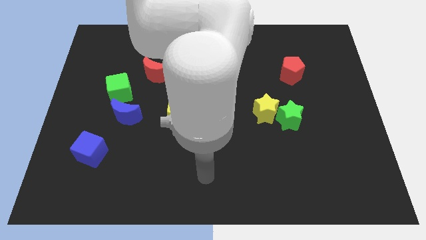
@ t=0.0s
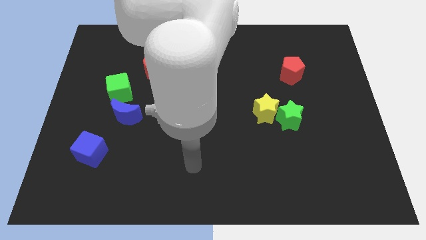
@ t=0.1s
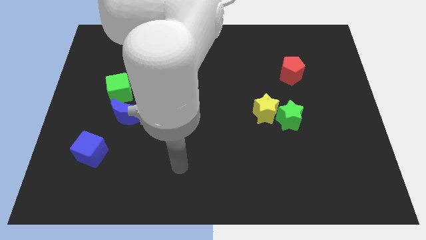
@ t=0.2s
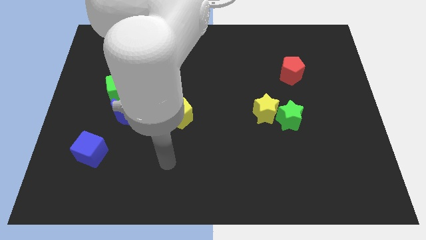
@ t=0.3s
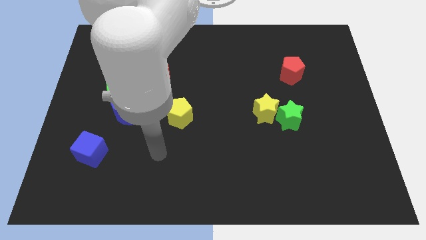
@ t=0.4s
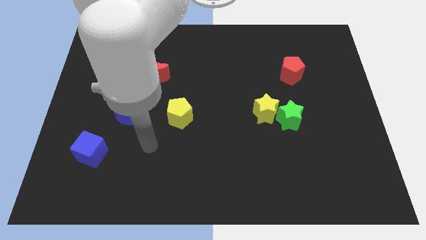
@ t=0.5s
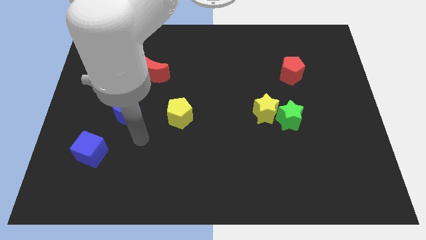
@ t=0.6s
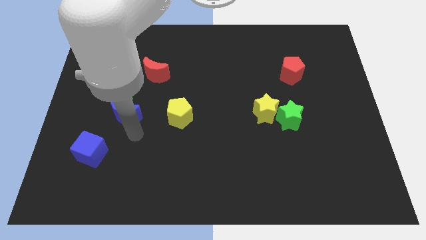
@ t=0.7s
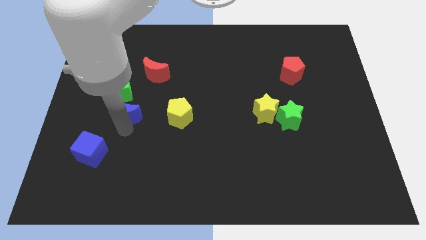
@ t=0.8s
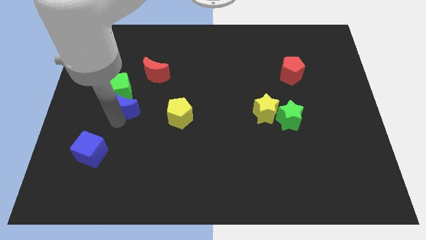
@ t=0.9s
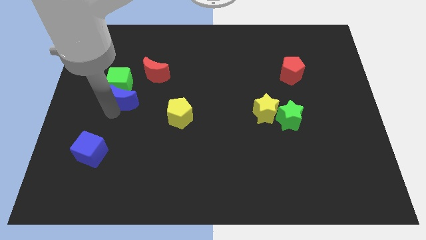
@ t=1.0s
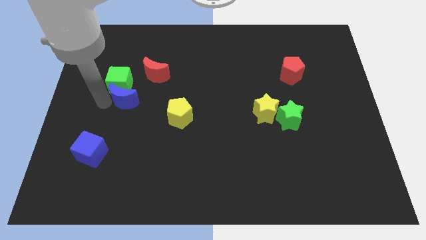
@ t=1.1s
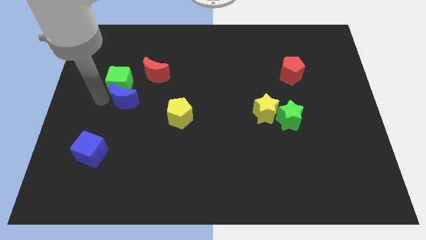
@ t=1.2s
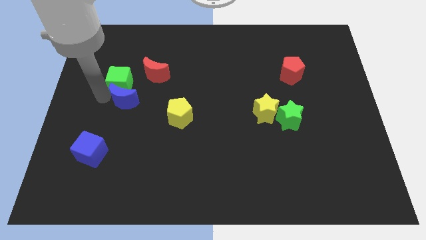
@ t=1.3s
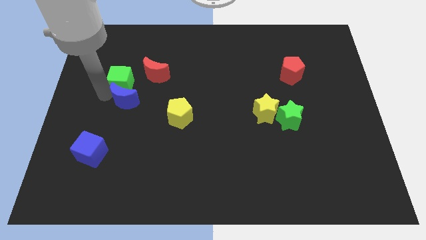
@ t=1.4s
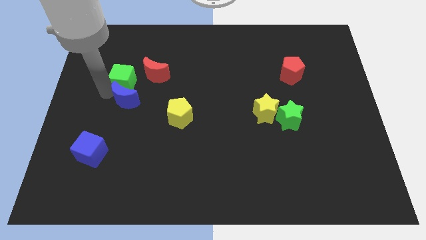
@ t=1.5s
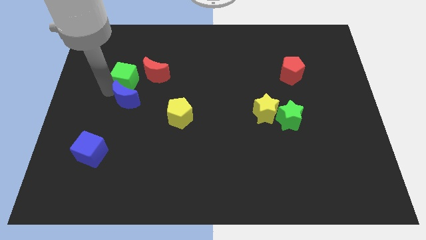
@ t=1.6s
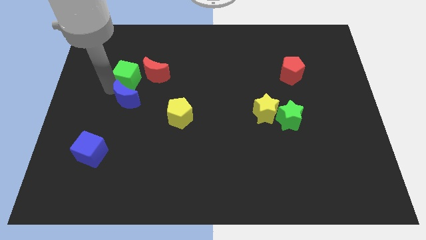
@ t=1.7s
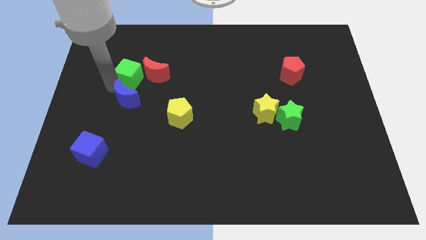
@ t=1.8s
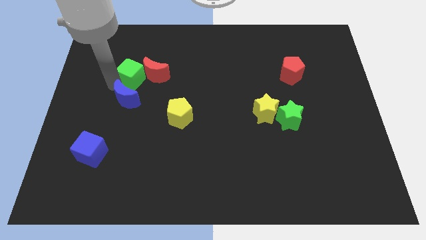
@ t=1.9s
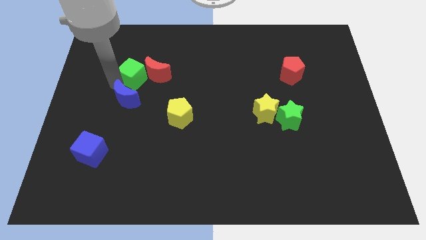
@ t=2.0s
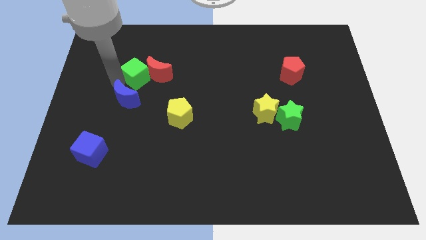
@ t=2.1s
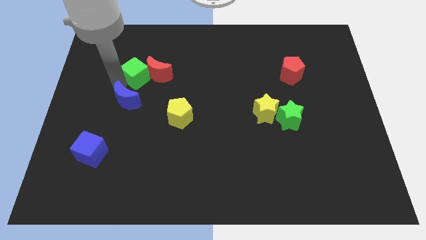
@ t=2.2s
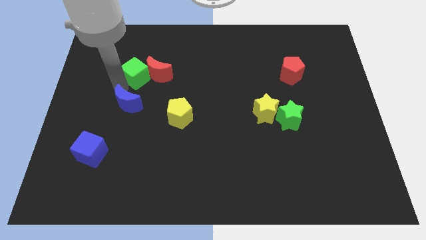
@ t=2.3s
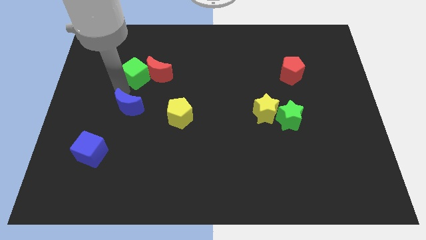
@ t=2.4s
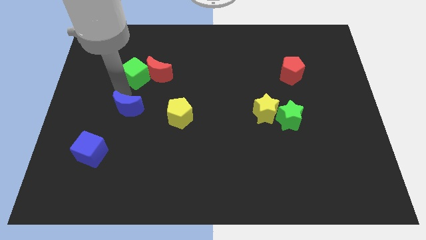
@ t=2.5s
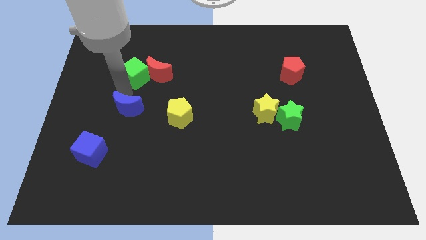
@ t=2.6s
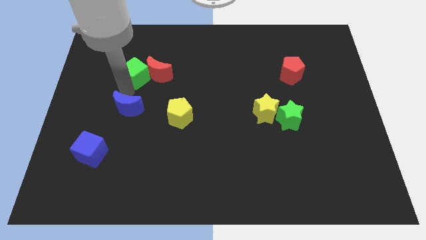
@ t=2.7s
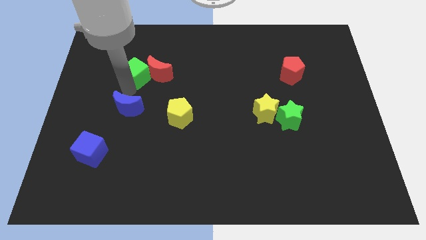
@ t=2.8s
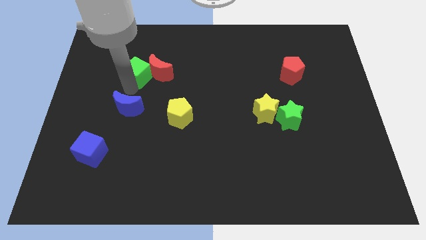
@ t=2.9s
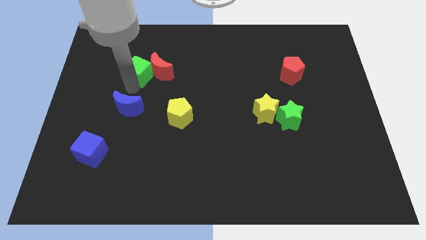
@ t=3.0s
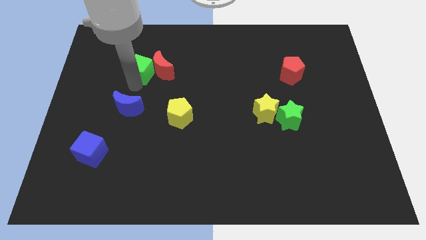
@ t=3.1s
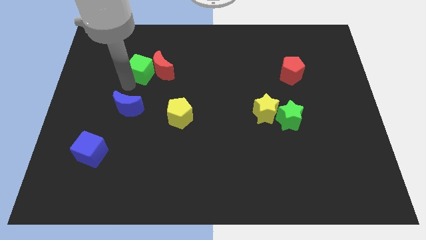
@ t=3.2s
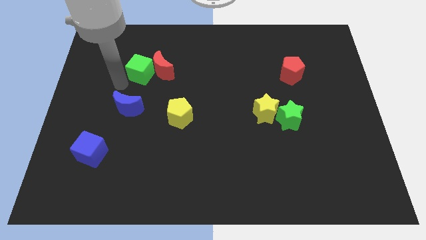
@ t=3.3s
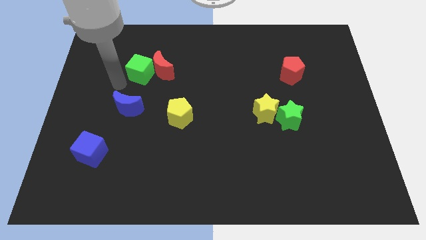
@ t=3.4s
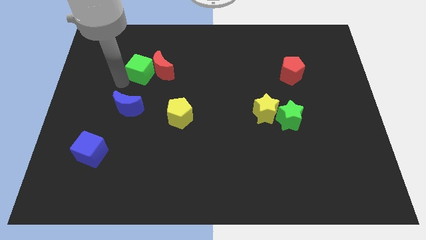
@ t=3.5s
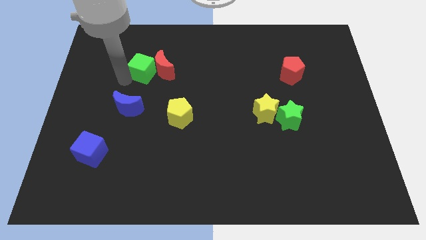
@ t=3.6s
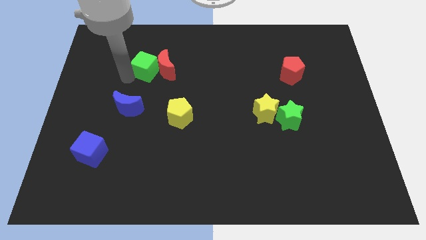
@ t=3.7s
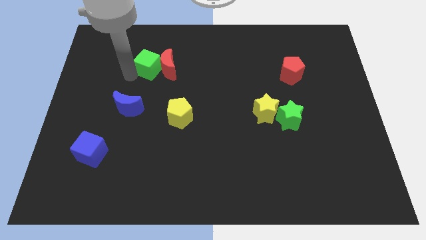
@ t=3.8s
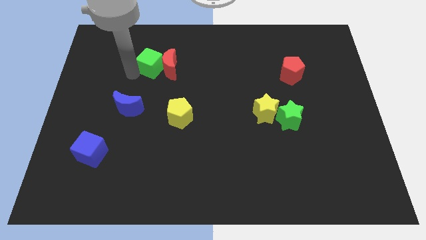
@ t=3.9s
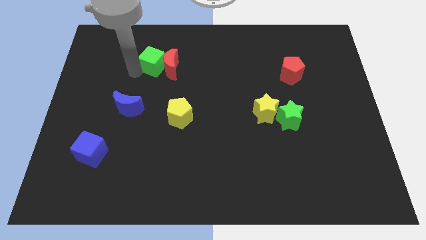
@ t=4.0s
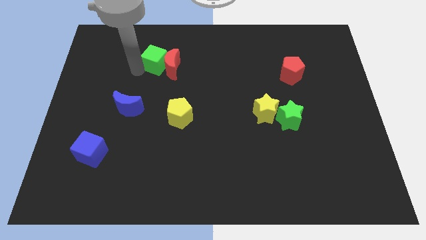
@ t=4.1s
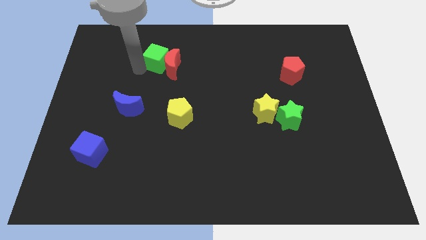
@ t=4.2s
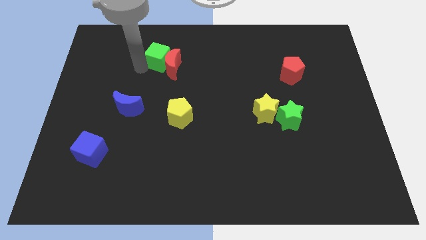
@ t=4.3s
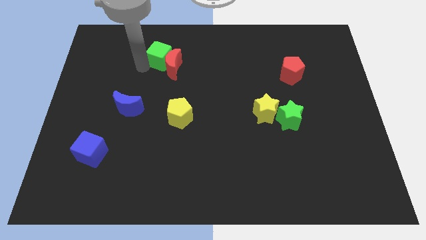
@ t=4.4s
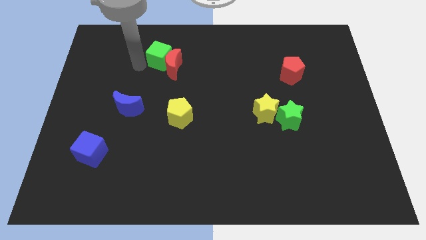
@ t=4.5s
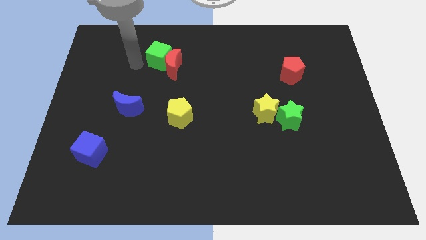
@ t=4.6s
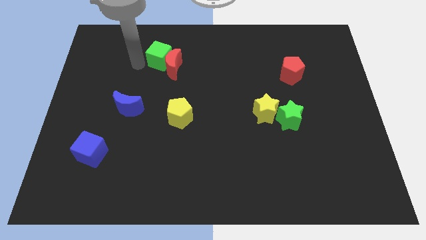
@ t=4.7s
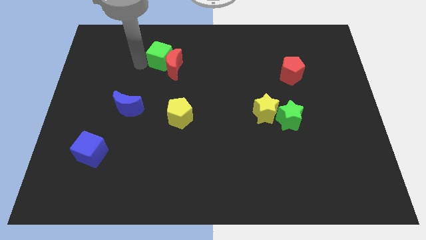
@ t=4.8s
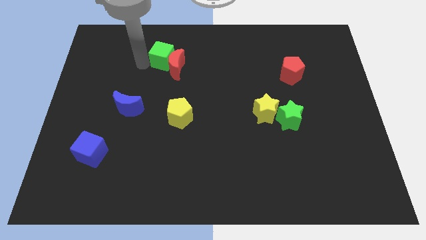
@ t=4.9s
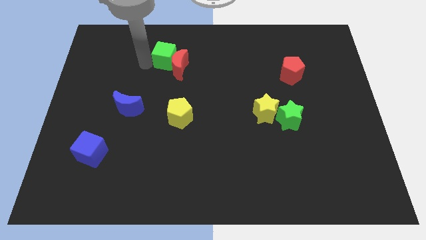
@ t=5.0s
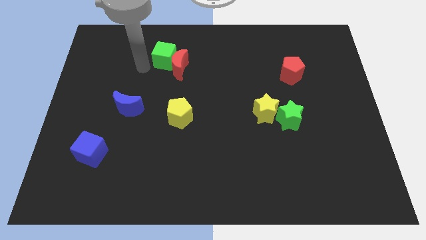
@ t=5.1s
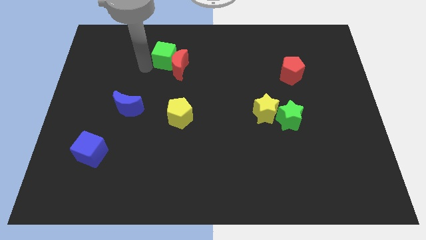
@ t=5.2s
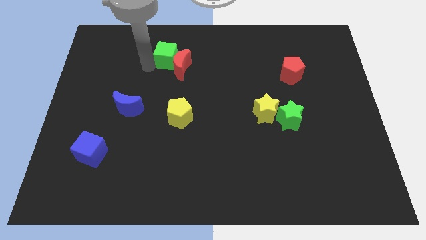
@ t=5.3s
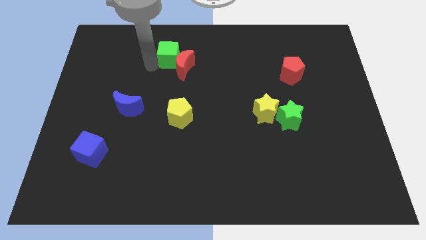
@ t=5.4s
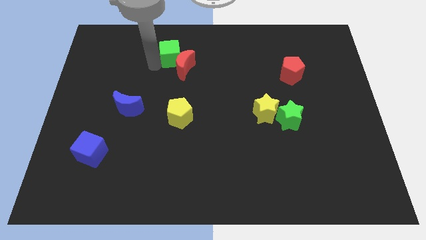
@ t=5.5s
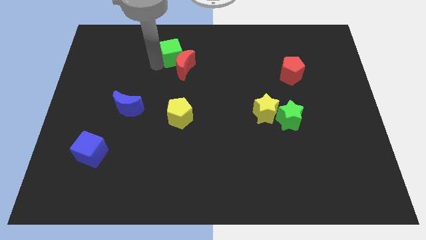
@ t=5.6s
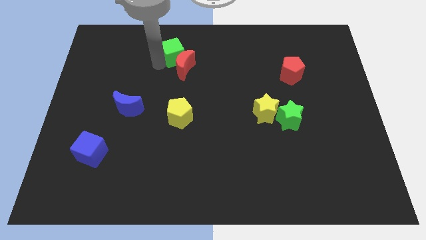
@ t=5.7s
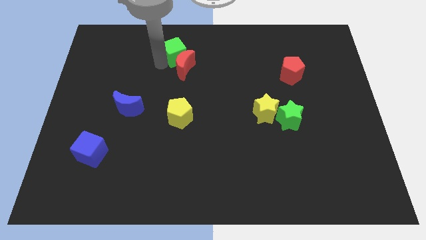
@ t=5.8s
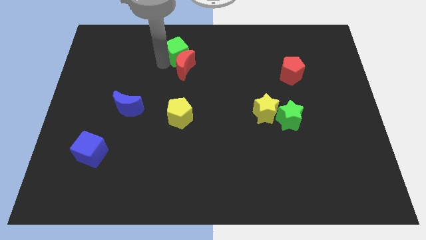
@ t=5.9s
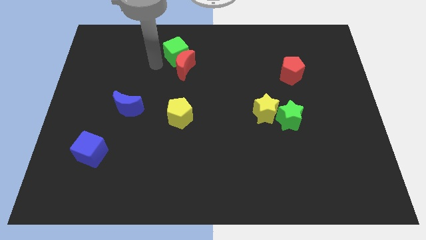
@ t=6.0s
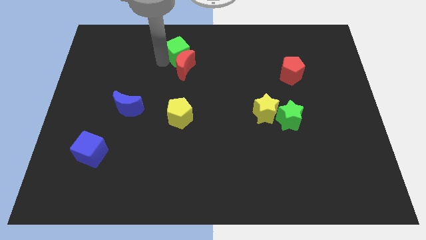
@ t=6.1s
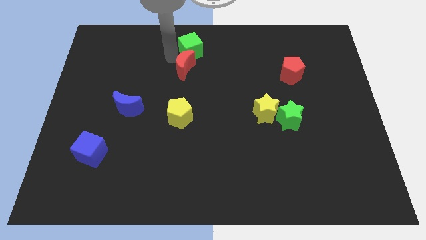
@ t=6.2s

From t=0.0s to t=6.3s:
put the green cube to the top
